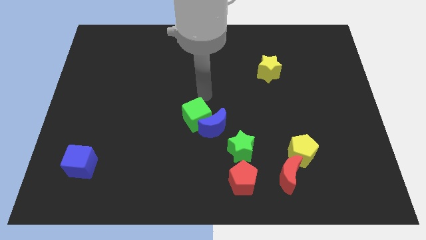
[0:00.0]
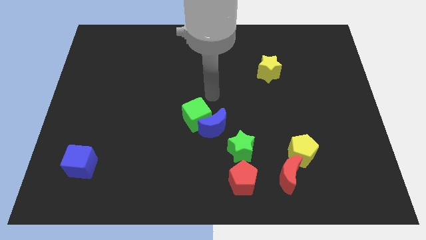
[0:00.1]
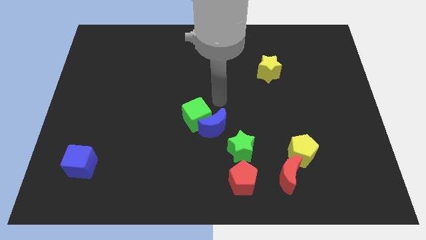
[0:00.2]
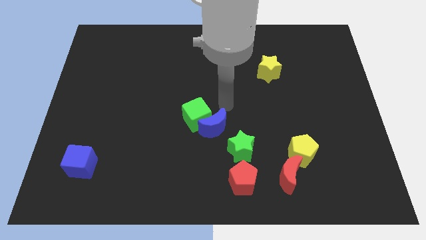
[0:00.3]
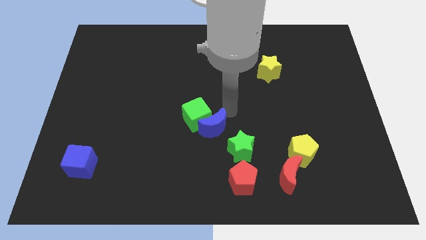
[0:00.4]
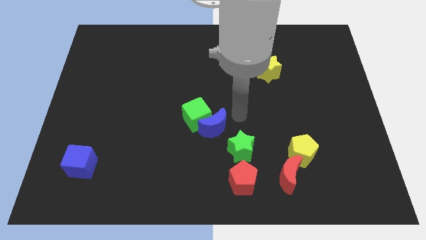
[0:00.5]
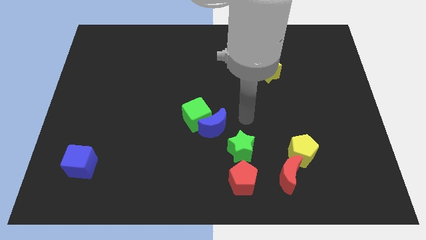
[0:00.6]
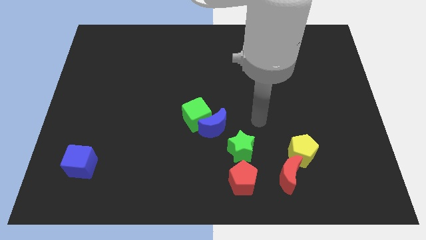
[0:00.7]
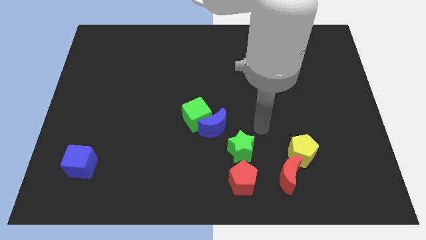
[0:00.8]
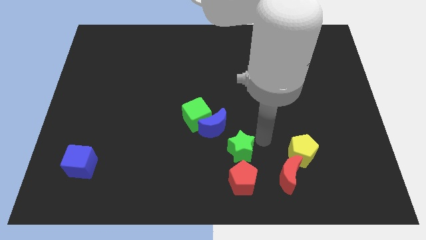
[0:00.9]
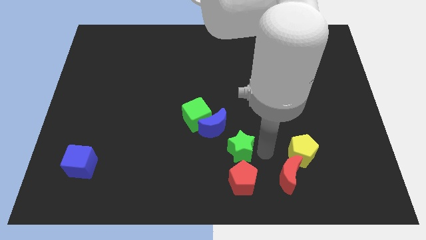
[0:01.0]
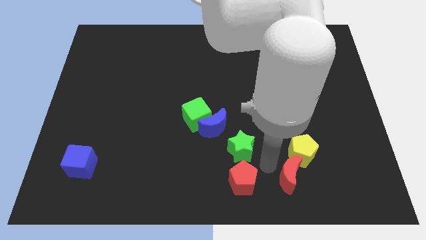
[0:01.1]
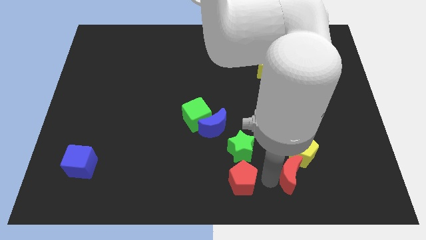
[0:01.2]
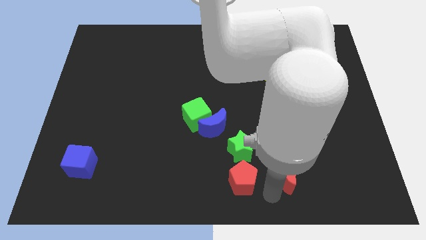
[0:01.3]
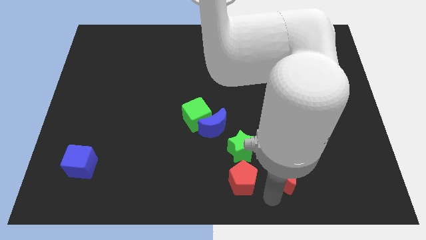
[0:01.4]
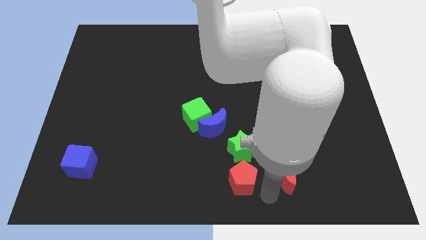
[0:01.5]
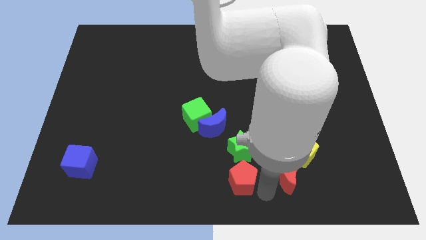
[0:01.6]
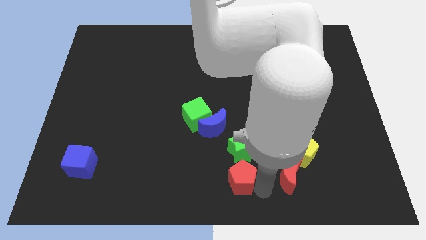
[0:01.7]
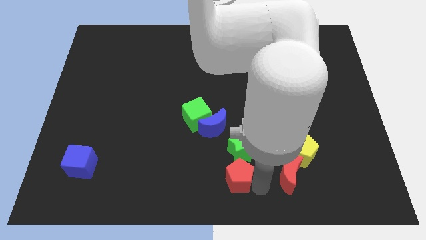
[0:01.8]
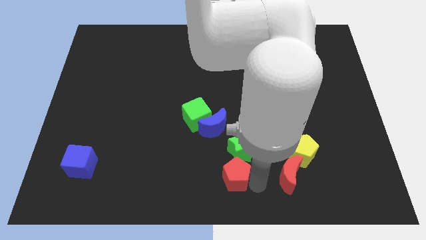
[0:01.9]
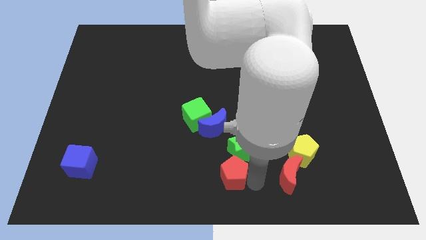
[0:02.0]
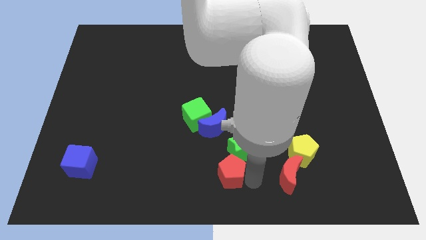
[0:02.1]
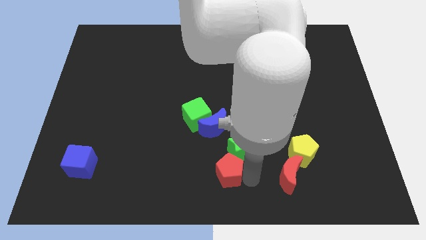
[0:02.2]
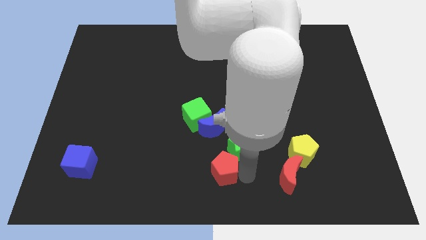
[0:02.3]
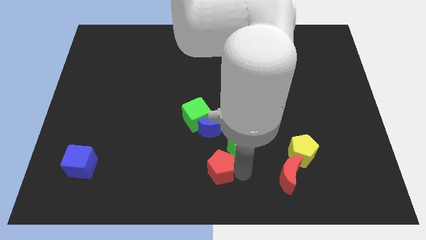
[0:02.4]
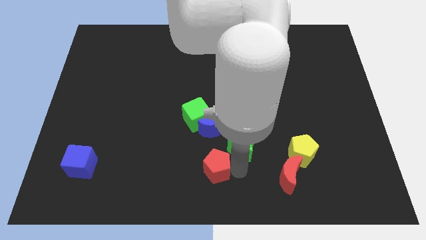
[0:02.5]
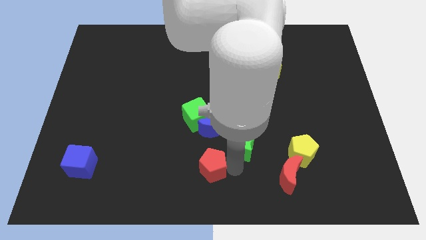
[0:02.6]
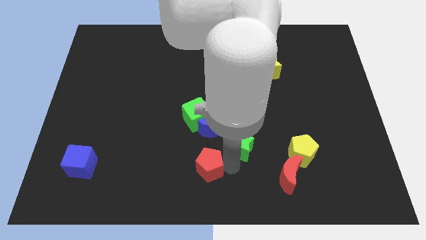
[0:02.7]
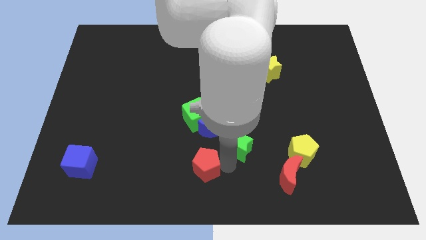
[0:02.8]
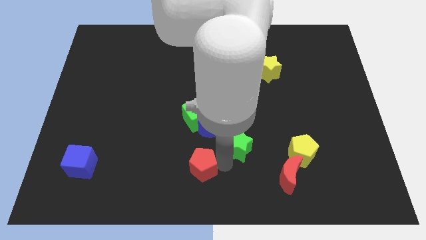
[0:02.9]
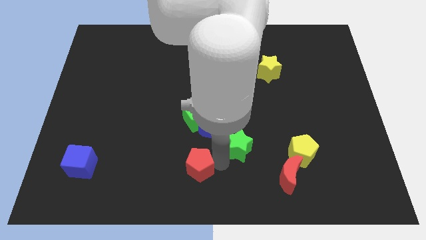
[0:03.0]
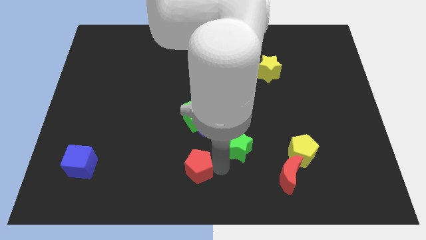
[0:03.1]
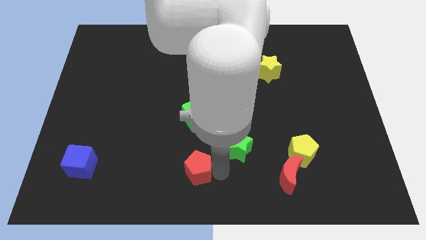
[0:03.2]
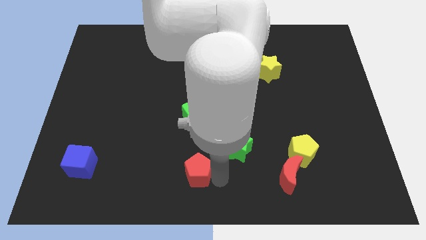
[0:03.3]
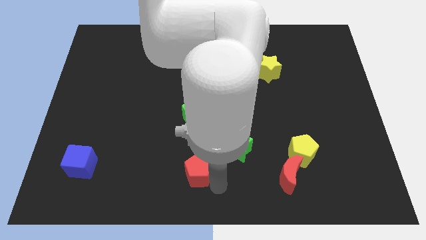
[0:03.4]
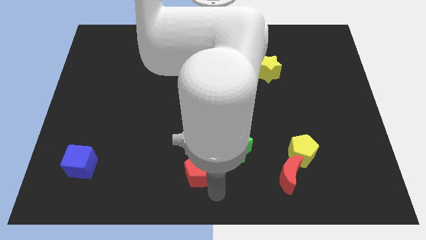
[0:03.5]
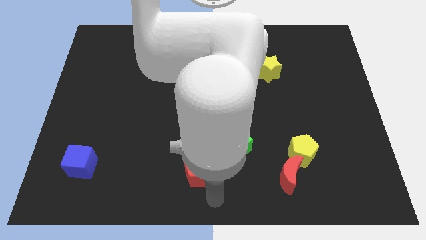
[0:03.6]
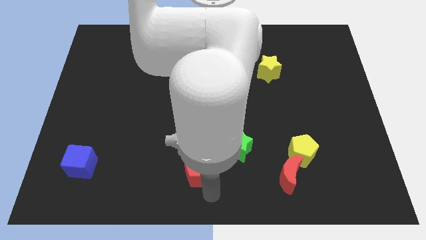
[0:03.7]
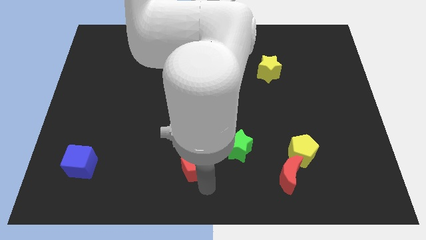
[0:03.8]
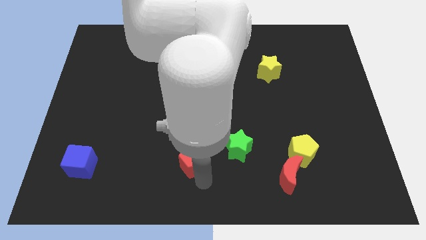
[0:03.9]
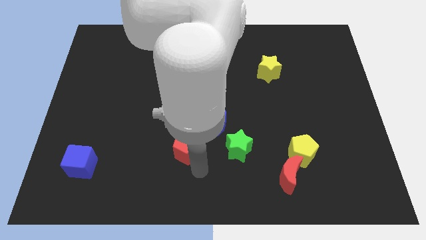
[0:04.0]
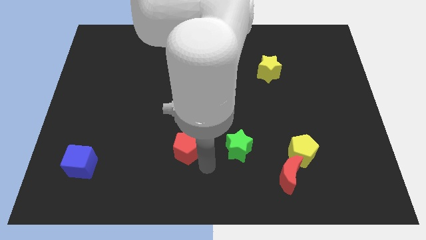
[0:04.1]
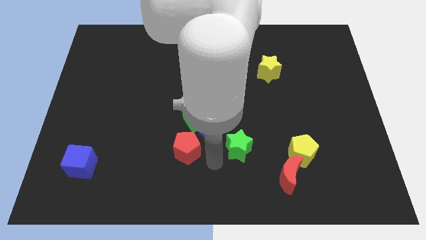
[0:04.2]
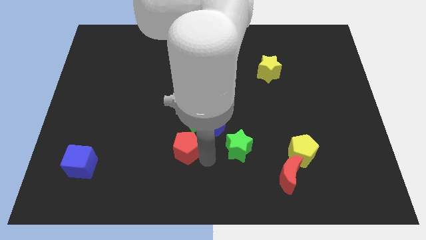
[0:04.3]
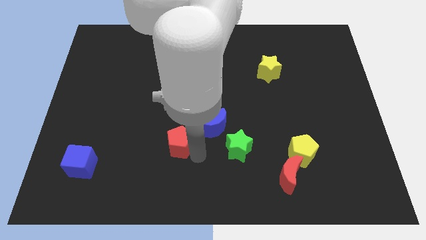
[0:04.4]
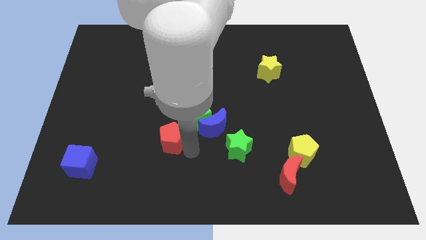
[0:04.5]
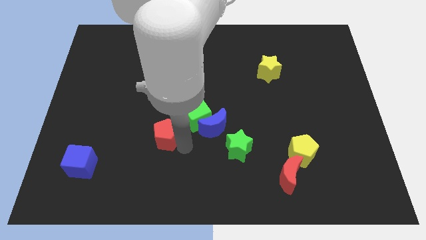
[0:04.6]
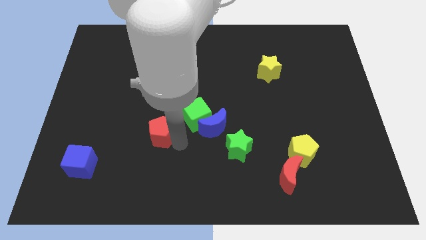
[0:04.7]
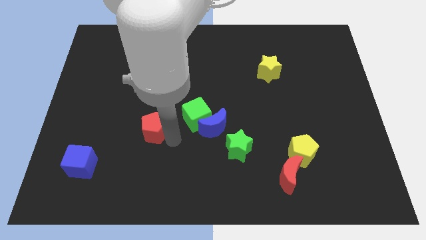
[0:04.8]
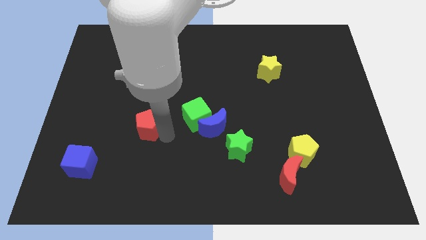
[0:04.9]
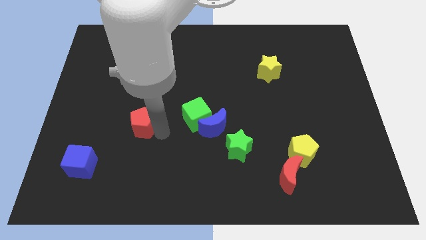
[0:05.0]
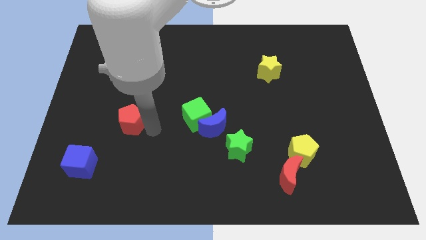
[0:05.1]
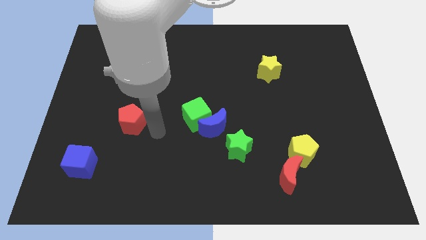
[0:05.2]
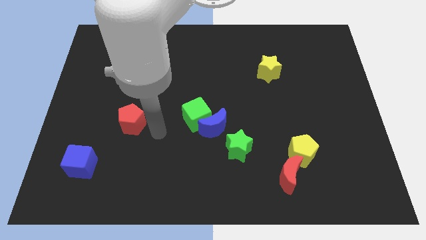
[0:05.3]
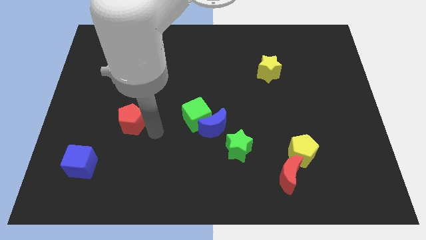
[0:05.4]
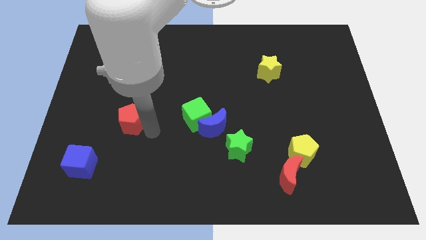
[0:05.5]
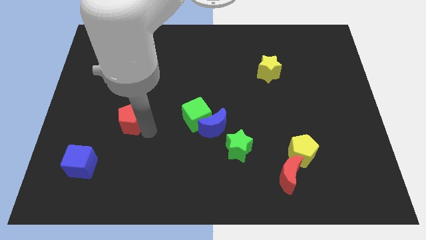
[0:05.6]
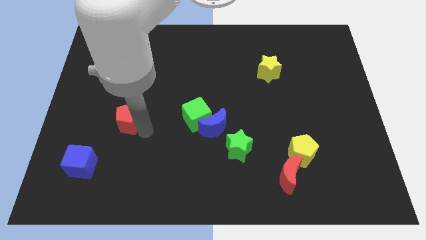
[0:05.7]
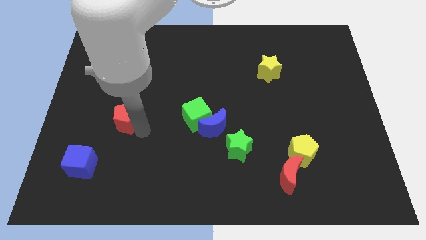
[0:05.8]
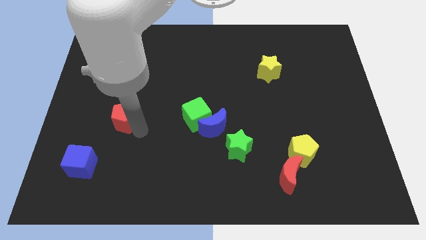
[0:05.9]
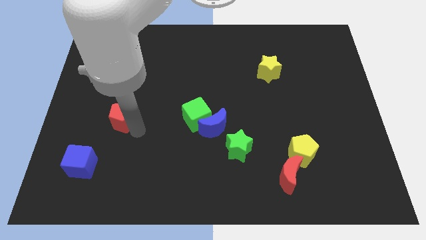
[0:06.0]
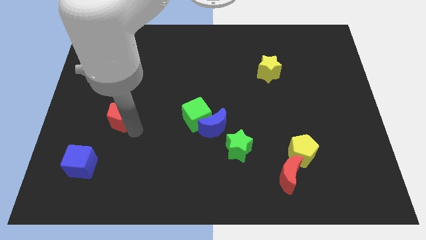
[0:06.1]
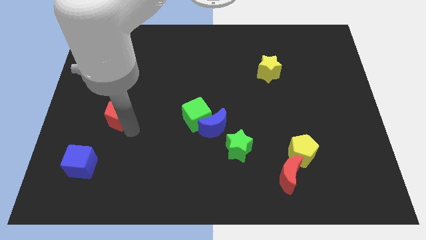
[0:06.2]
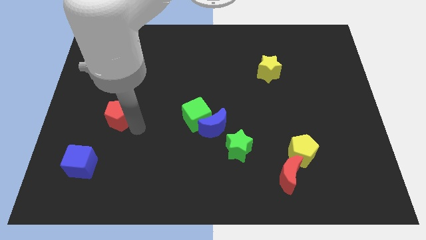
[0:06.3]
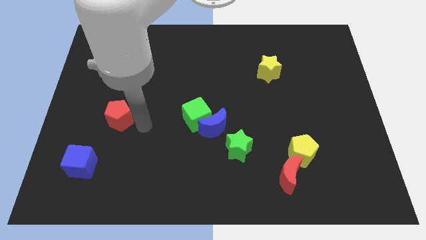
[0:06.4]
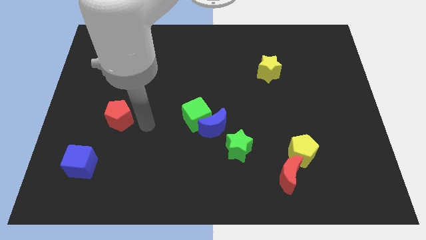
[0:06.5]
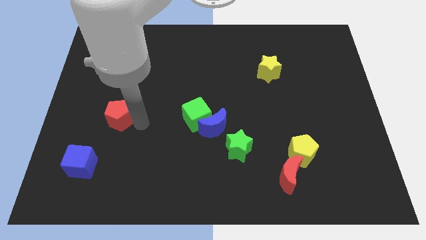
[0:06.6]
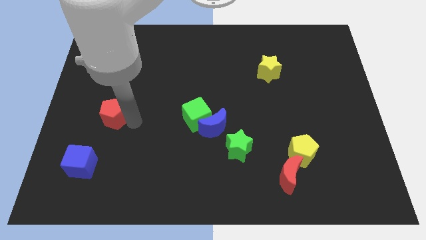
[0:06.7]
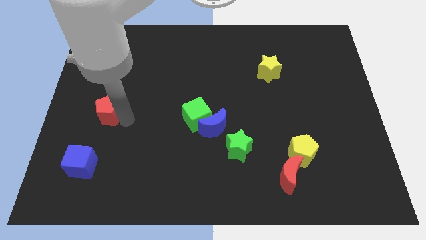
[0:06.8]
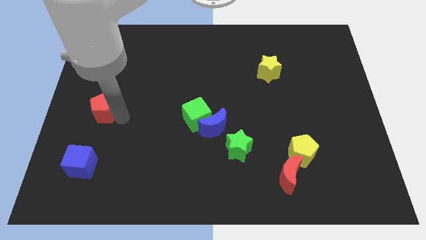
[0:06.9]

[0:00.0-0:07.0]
put the red pentagon to the left side
